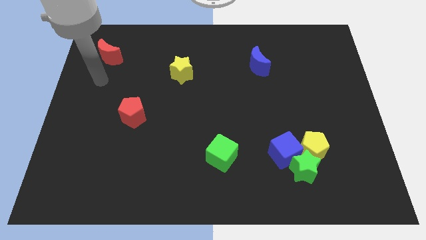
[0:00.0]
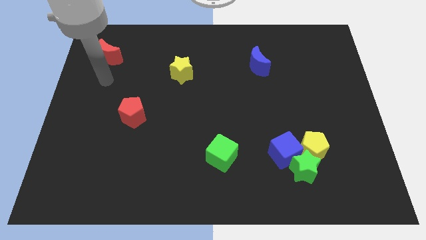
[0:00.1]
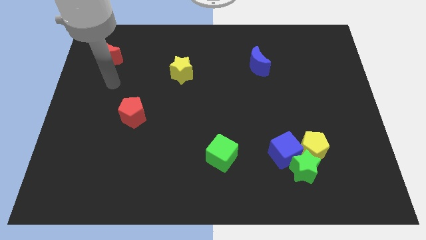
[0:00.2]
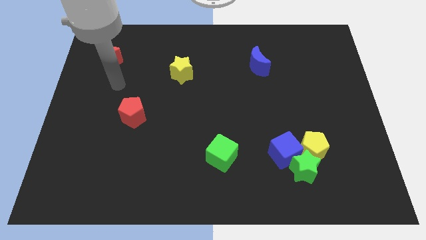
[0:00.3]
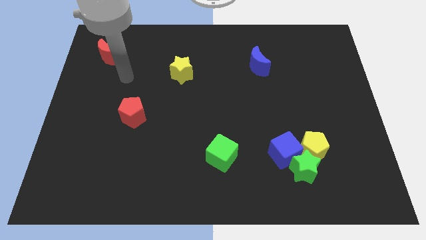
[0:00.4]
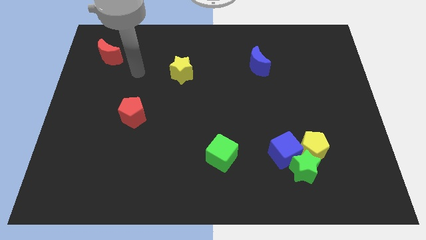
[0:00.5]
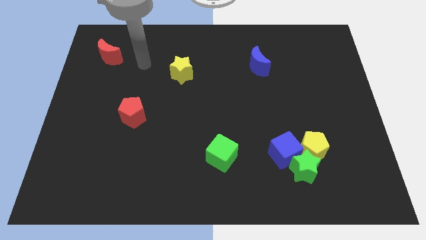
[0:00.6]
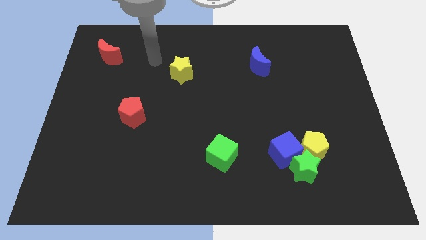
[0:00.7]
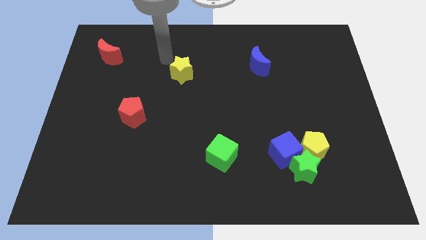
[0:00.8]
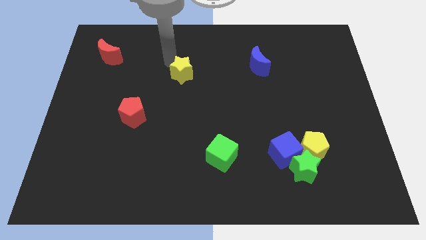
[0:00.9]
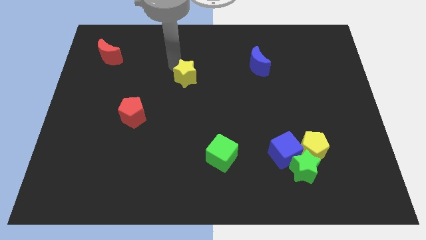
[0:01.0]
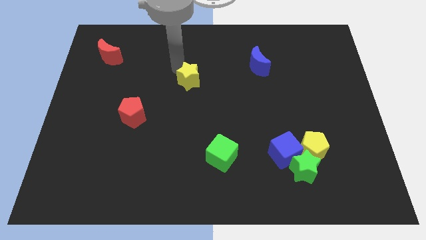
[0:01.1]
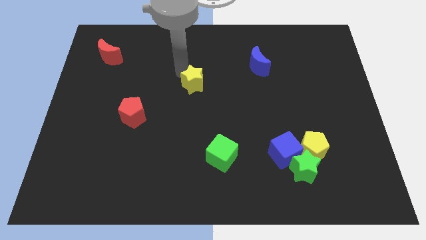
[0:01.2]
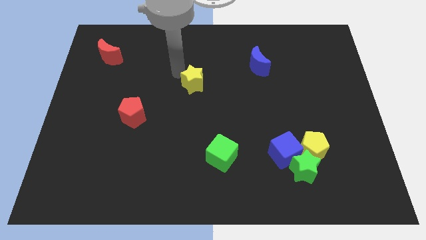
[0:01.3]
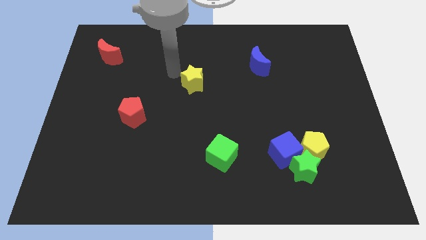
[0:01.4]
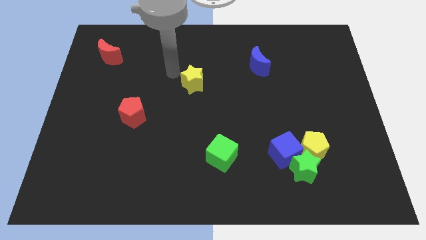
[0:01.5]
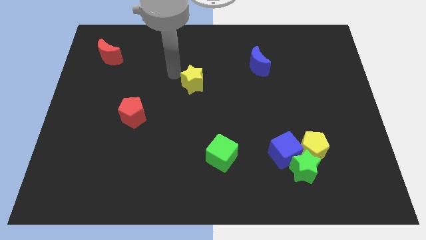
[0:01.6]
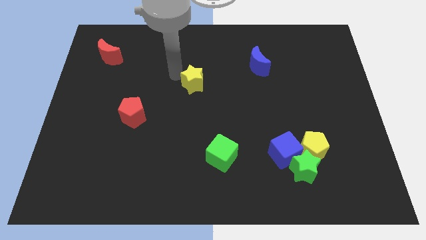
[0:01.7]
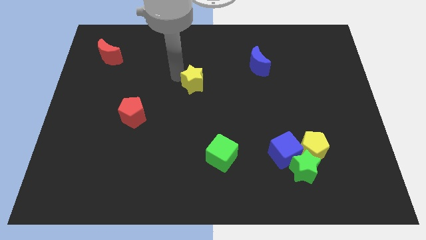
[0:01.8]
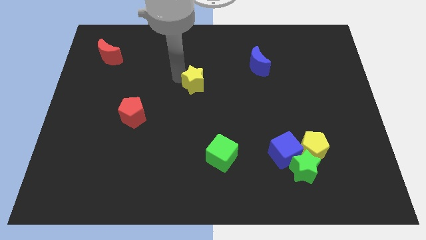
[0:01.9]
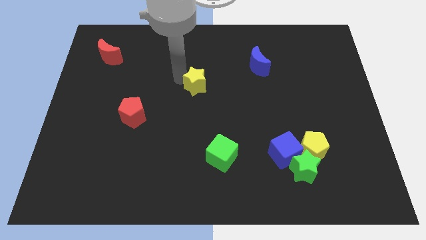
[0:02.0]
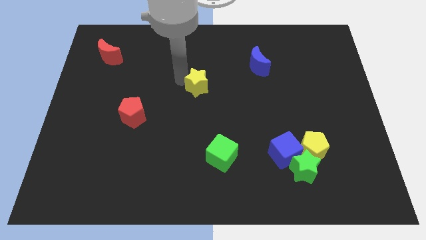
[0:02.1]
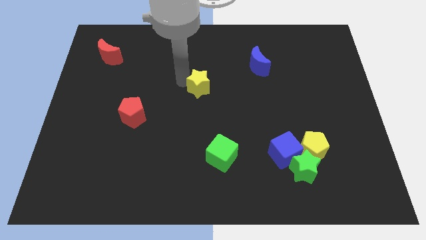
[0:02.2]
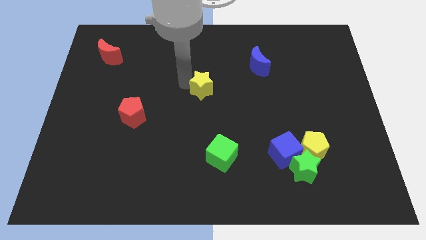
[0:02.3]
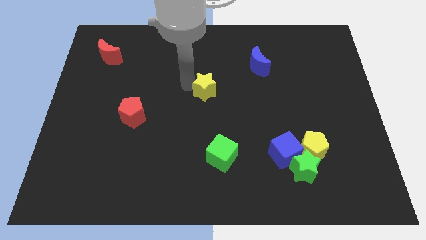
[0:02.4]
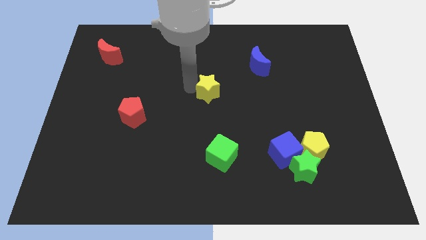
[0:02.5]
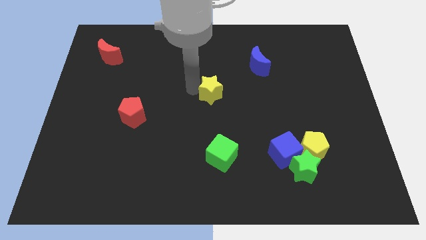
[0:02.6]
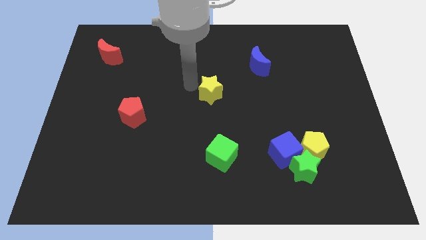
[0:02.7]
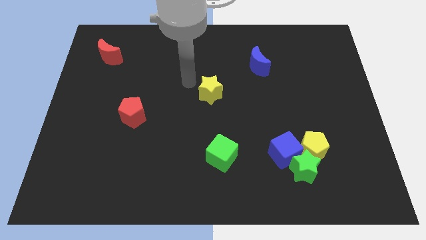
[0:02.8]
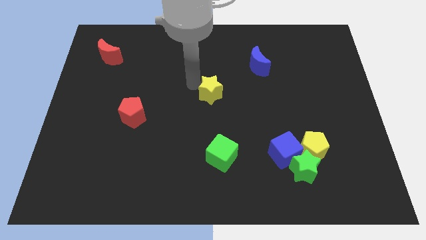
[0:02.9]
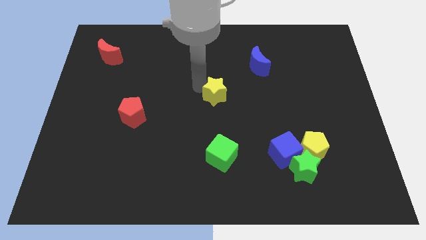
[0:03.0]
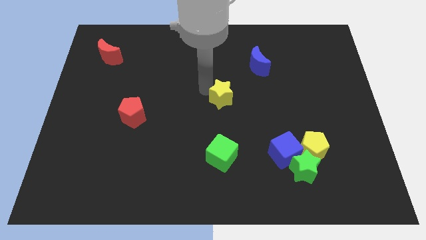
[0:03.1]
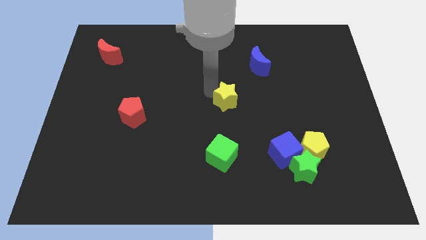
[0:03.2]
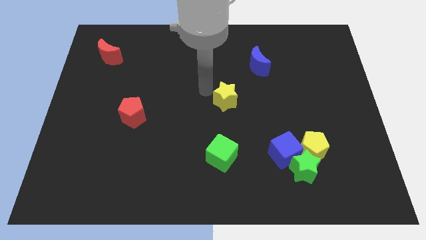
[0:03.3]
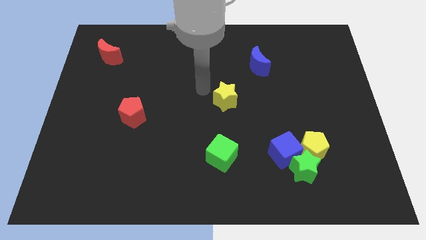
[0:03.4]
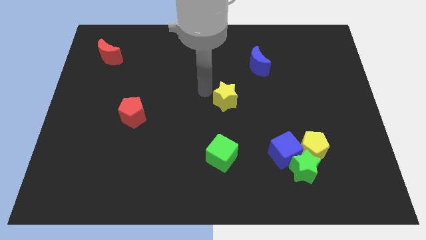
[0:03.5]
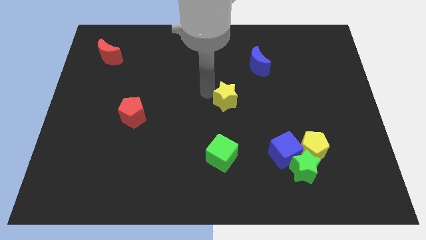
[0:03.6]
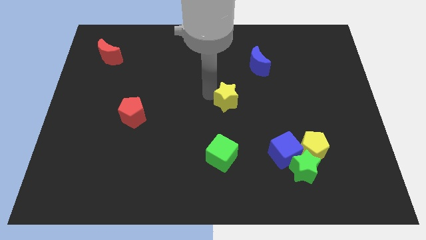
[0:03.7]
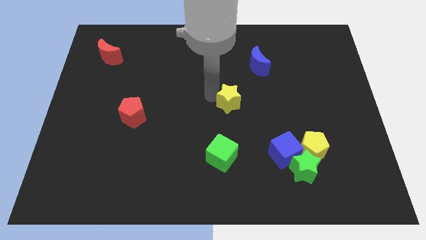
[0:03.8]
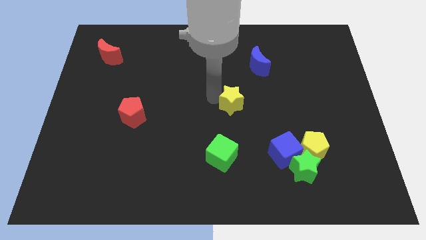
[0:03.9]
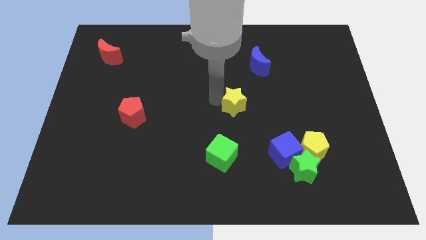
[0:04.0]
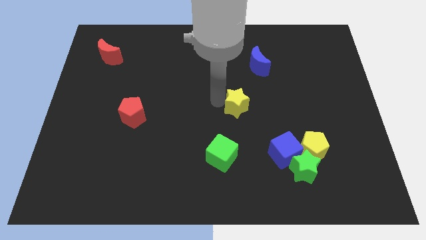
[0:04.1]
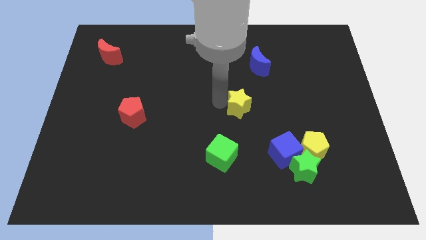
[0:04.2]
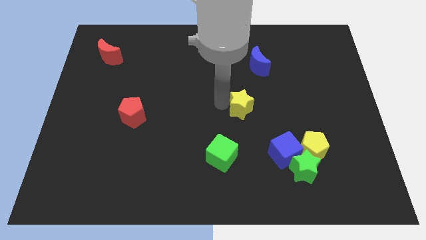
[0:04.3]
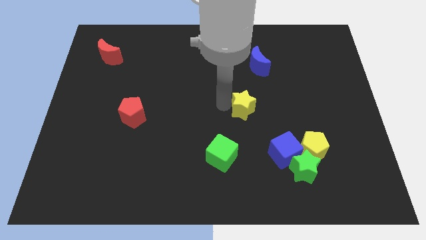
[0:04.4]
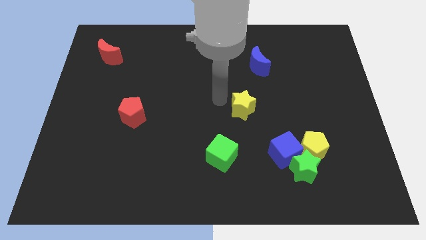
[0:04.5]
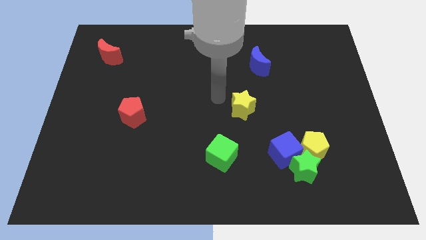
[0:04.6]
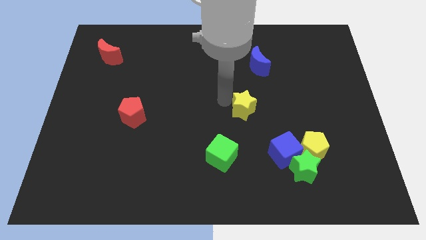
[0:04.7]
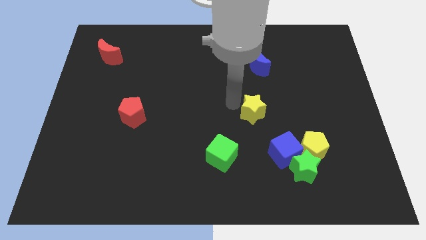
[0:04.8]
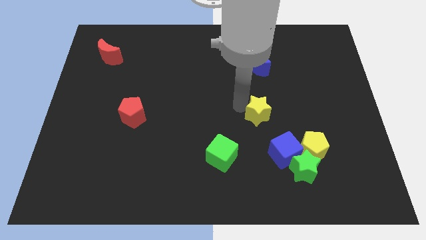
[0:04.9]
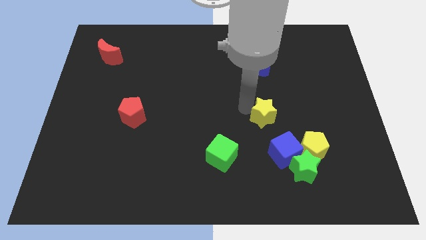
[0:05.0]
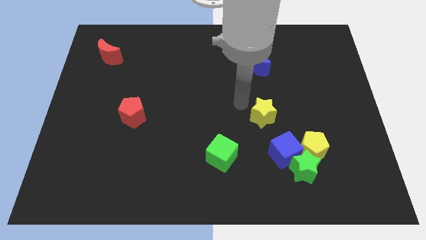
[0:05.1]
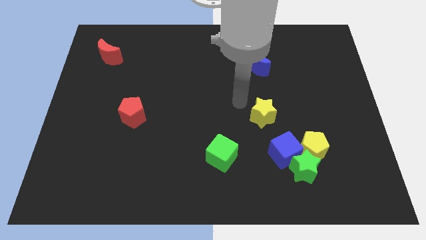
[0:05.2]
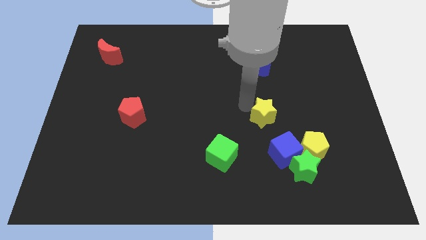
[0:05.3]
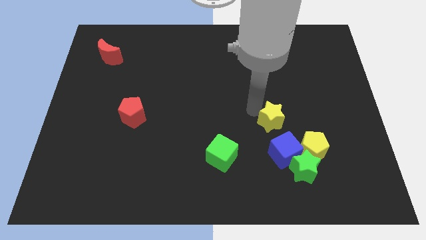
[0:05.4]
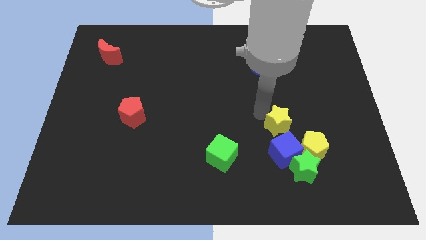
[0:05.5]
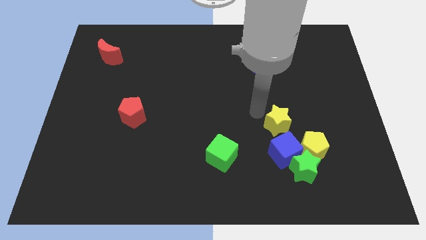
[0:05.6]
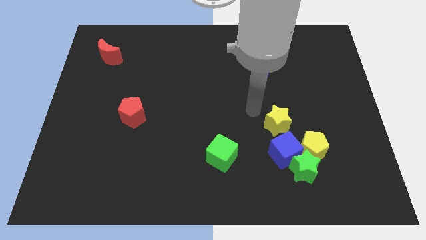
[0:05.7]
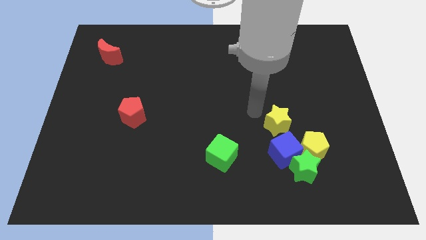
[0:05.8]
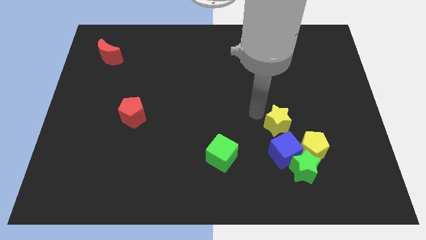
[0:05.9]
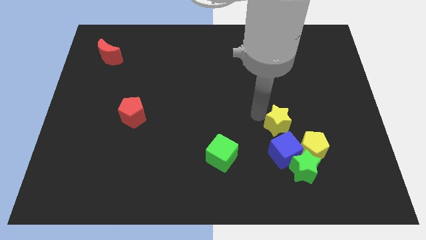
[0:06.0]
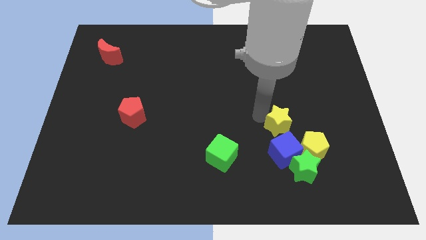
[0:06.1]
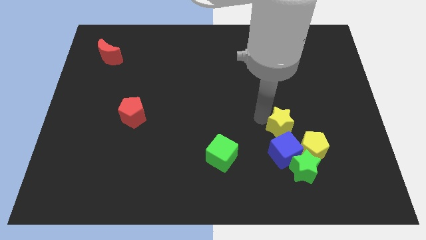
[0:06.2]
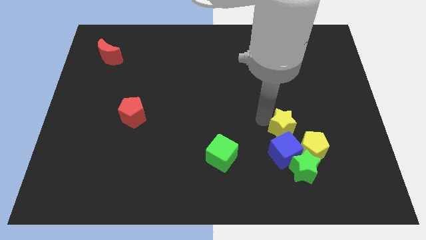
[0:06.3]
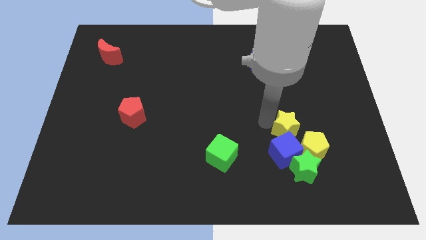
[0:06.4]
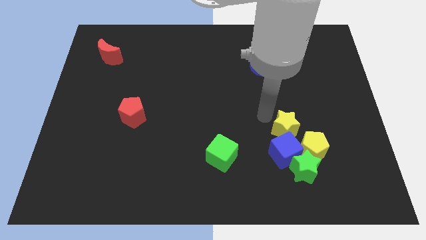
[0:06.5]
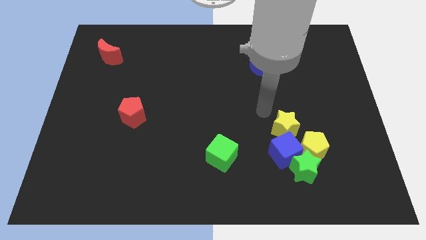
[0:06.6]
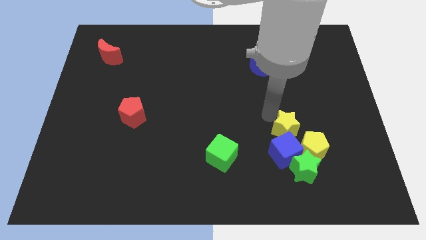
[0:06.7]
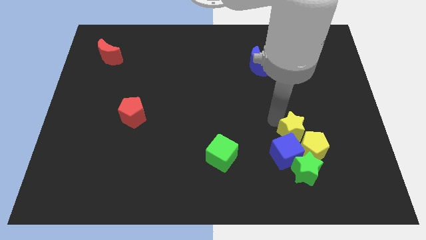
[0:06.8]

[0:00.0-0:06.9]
put the yellow star next to the yellow pentagon
